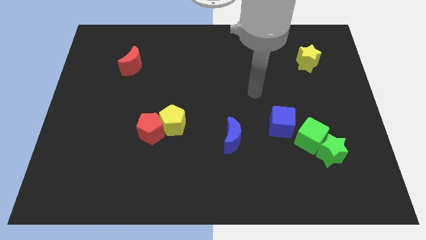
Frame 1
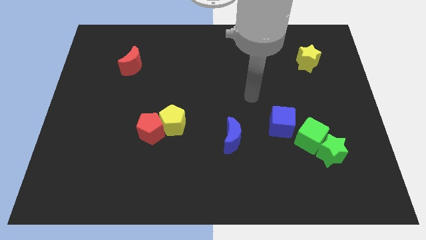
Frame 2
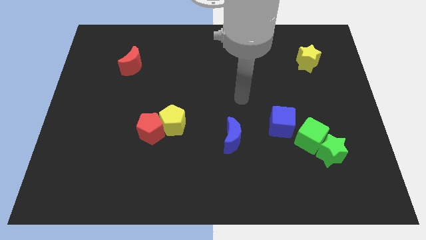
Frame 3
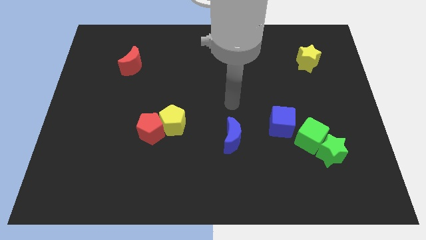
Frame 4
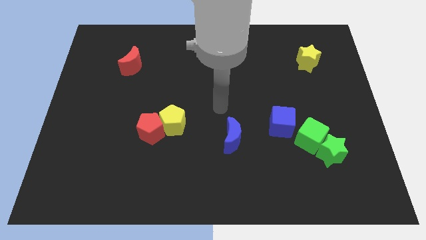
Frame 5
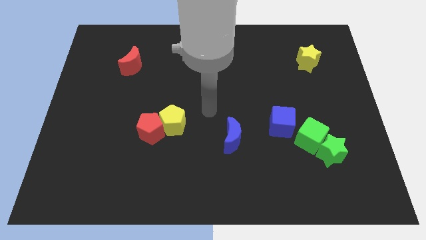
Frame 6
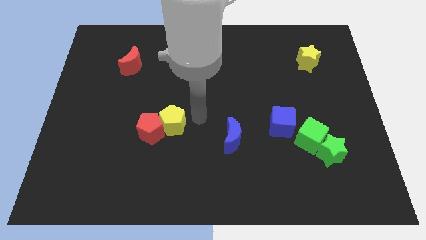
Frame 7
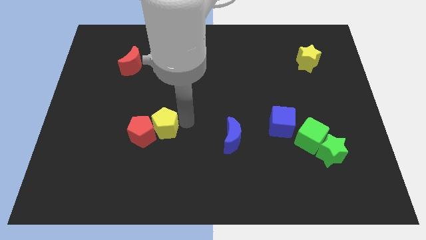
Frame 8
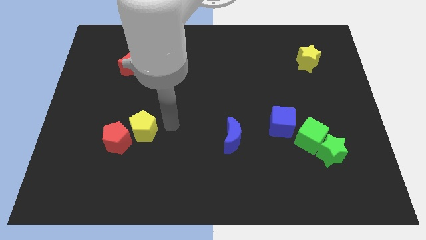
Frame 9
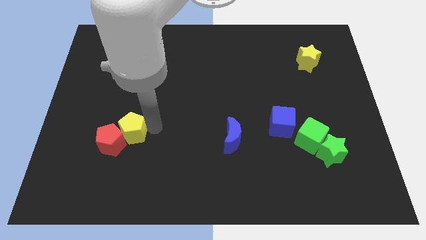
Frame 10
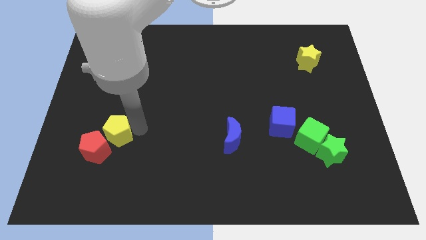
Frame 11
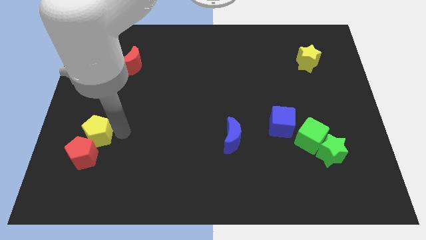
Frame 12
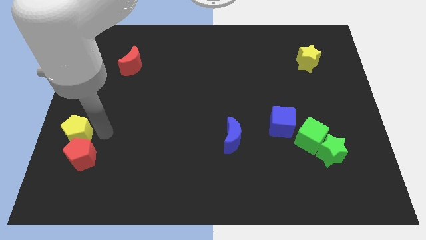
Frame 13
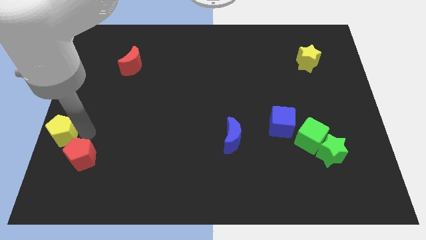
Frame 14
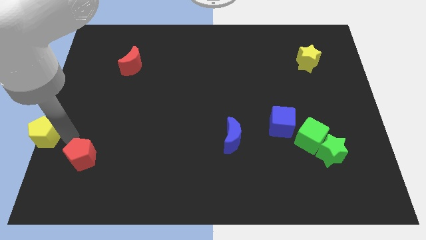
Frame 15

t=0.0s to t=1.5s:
separate the red pentagon from the yellow pentagon

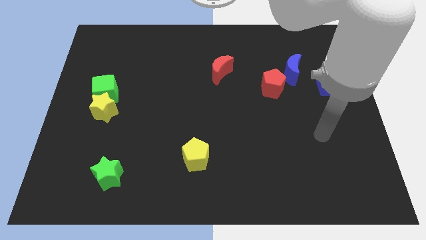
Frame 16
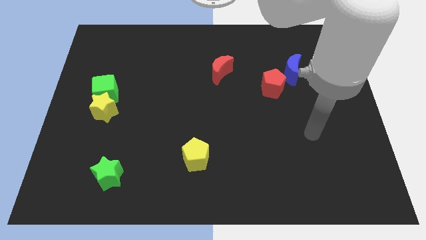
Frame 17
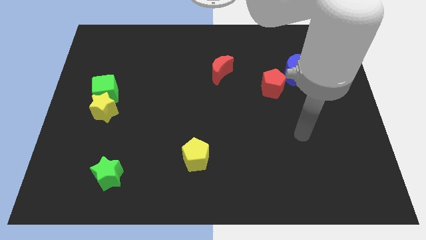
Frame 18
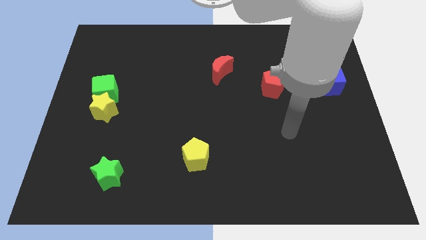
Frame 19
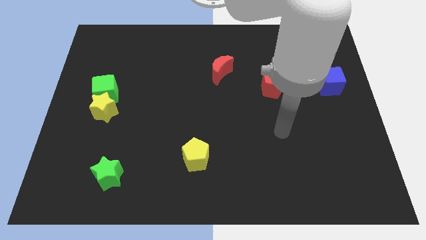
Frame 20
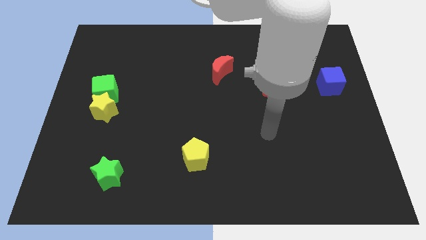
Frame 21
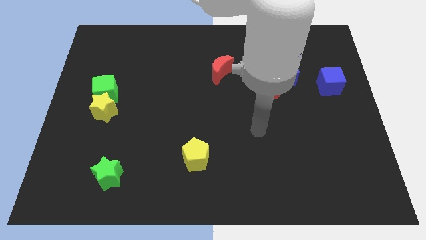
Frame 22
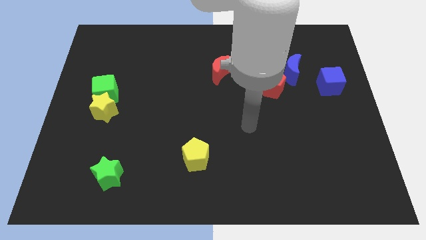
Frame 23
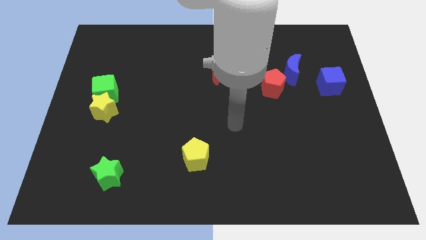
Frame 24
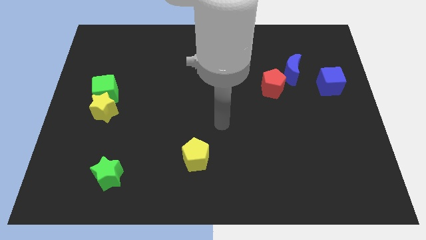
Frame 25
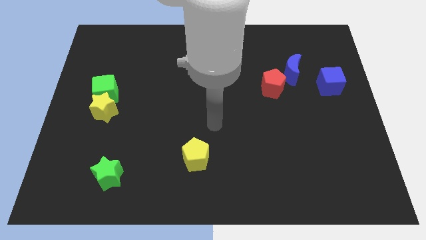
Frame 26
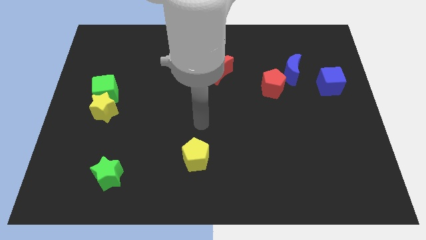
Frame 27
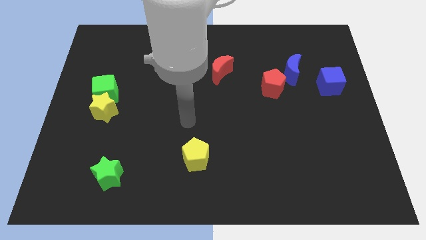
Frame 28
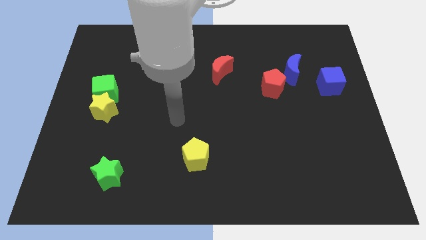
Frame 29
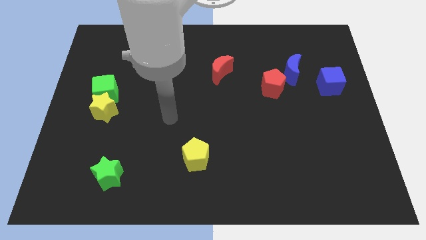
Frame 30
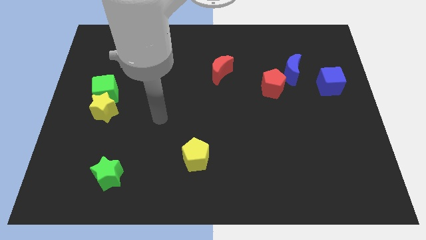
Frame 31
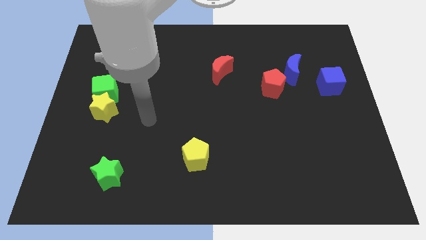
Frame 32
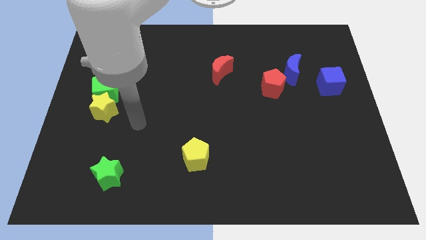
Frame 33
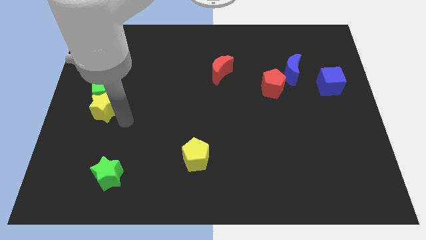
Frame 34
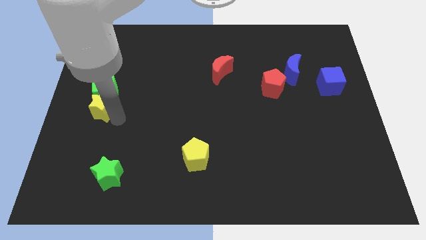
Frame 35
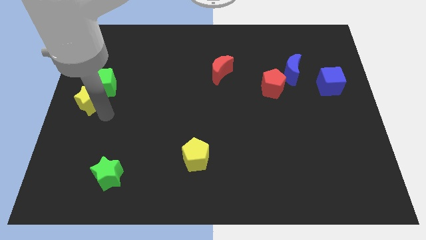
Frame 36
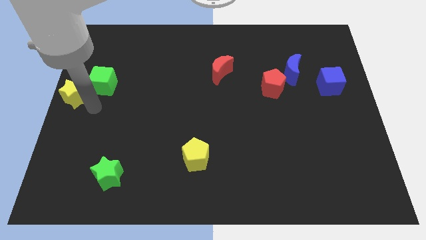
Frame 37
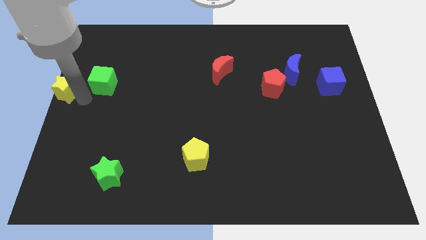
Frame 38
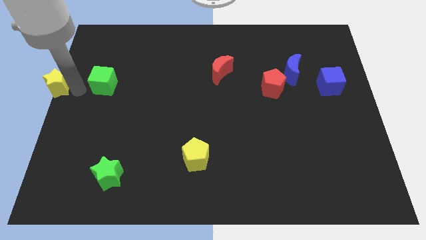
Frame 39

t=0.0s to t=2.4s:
move the green cube away from the yellow star

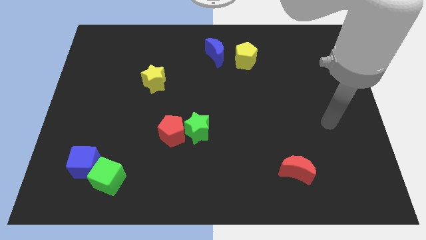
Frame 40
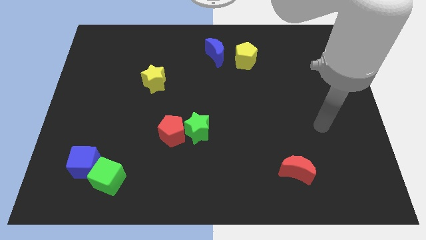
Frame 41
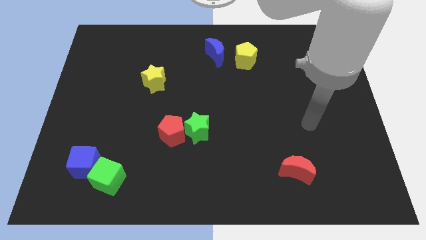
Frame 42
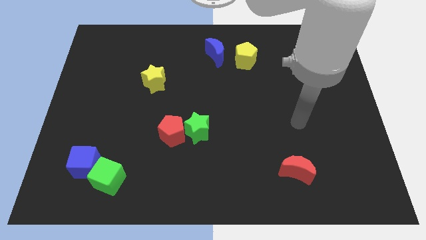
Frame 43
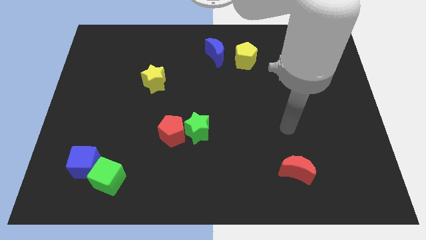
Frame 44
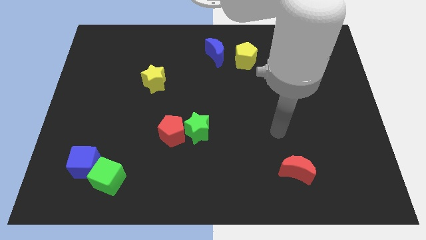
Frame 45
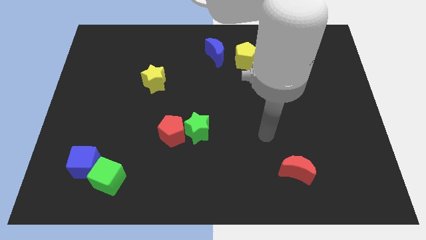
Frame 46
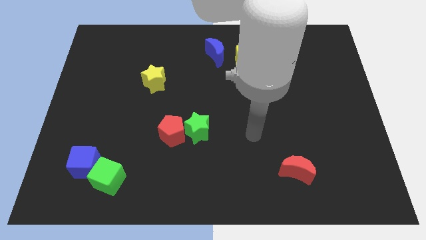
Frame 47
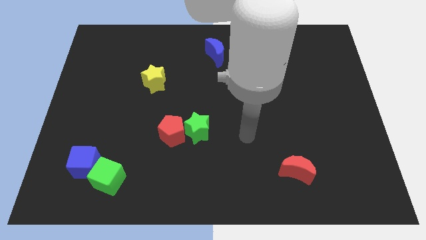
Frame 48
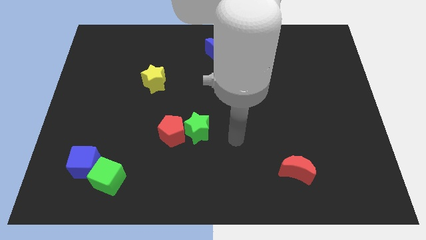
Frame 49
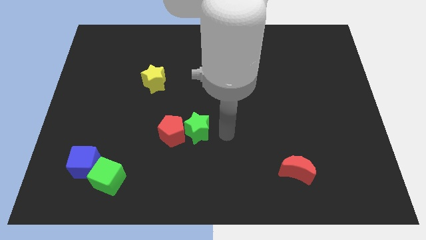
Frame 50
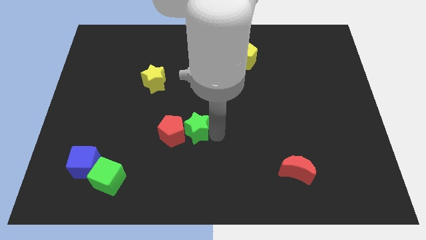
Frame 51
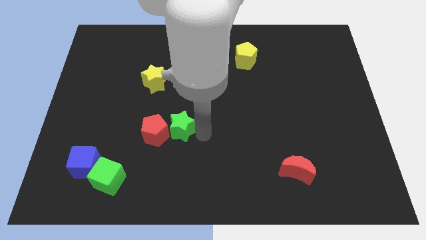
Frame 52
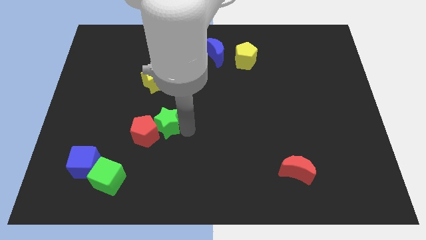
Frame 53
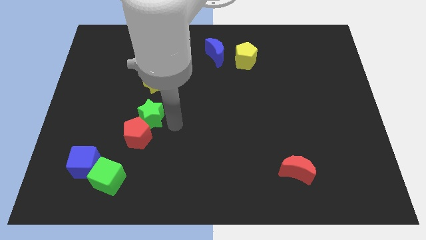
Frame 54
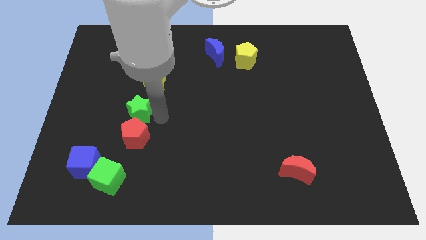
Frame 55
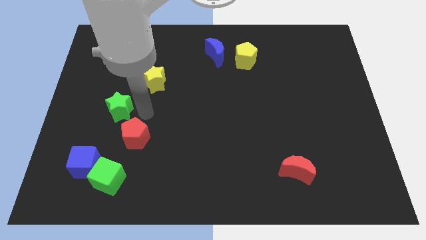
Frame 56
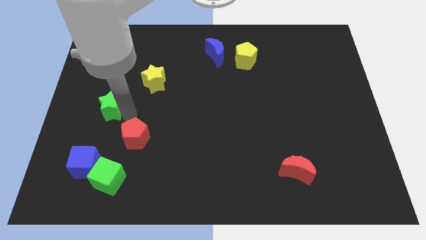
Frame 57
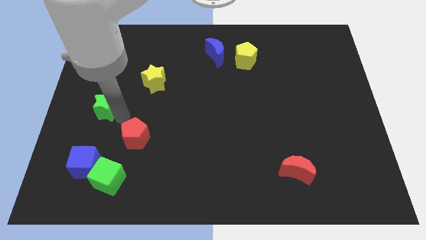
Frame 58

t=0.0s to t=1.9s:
move the red pentagon away from the green star

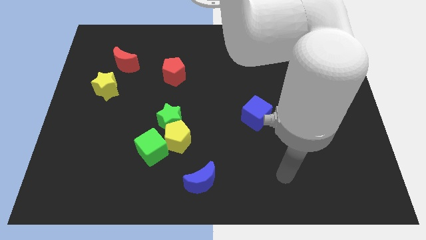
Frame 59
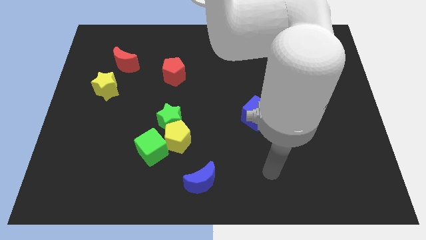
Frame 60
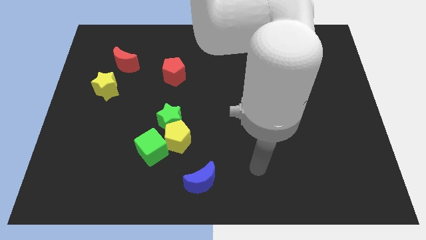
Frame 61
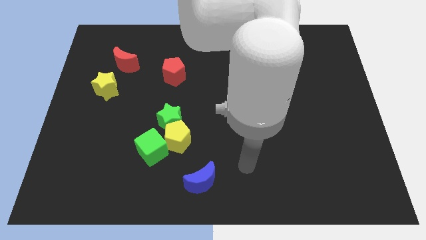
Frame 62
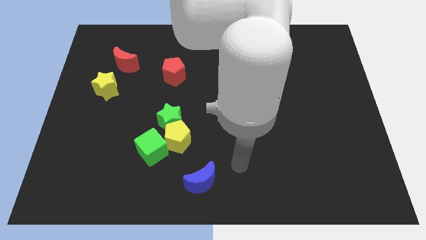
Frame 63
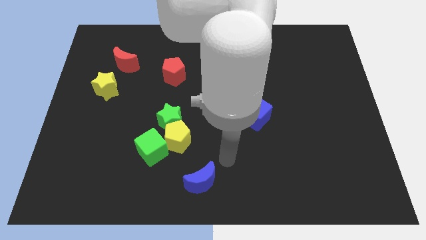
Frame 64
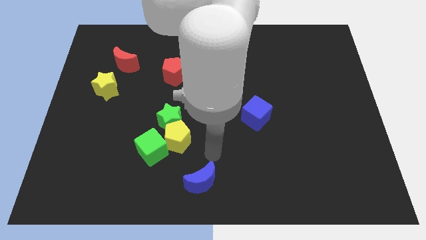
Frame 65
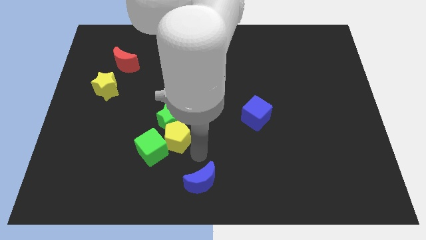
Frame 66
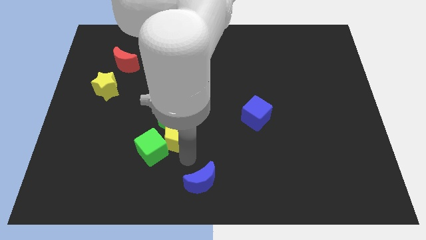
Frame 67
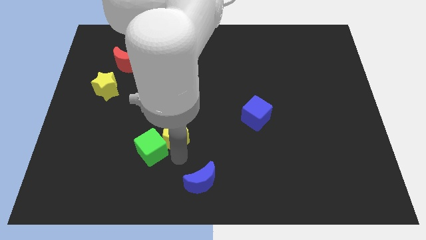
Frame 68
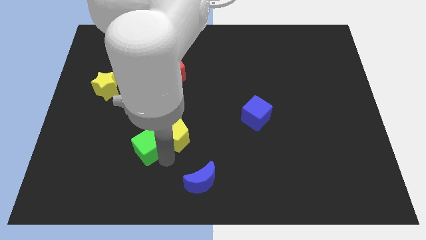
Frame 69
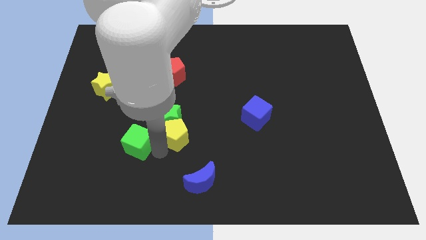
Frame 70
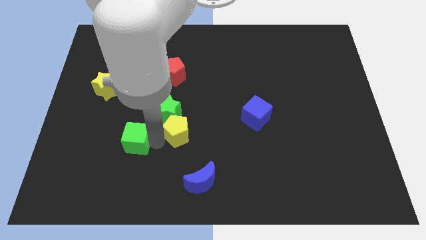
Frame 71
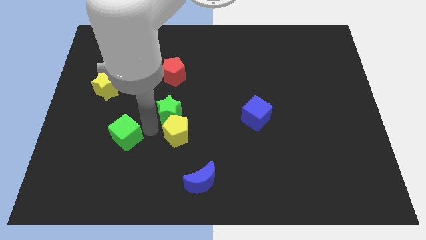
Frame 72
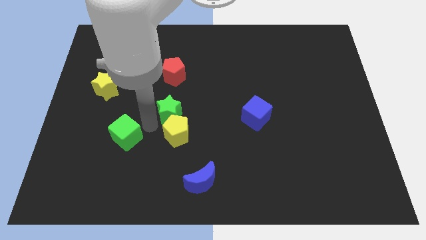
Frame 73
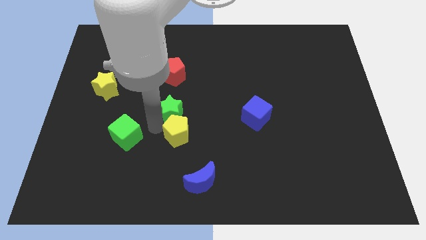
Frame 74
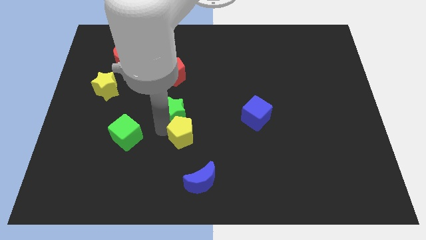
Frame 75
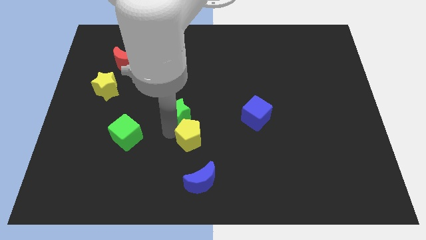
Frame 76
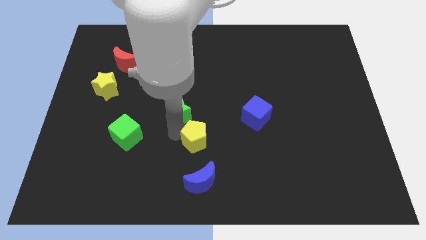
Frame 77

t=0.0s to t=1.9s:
pull the yellow pentagon apart from the green star and green cube

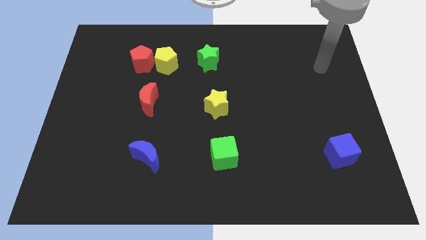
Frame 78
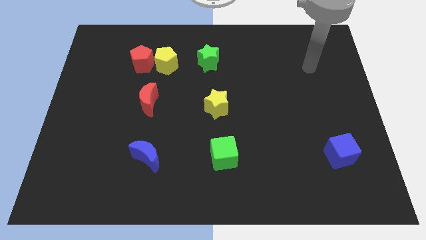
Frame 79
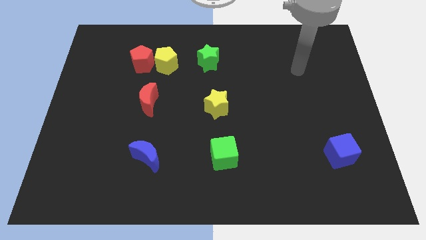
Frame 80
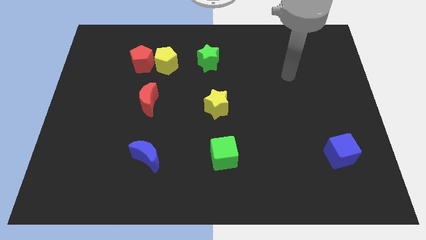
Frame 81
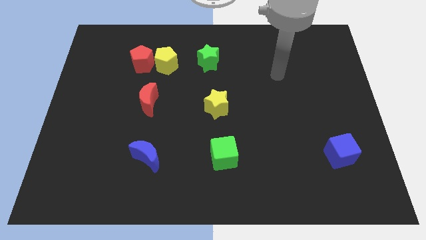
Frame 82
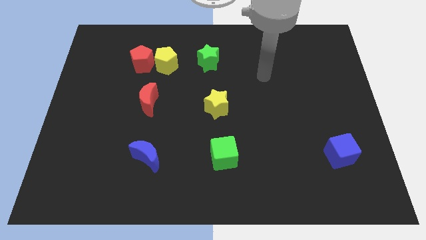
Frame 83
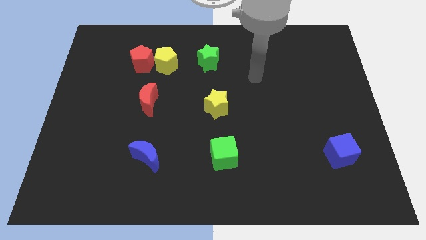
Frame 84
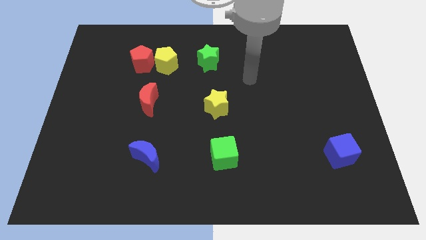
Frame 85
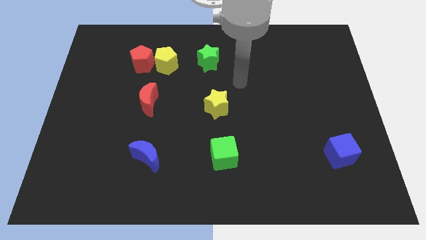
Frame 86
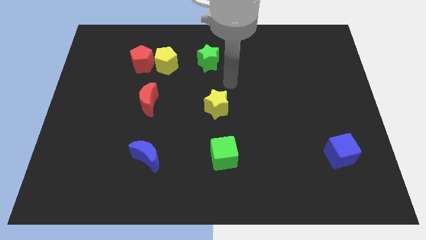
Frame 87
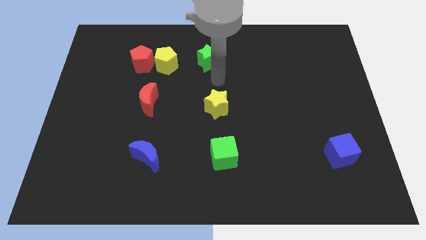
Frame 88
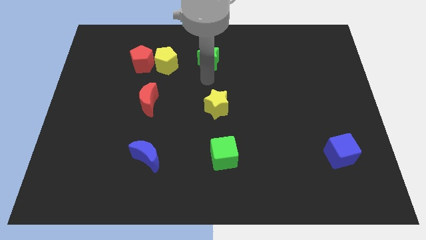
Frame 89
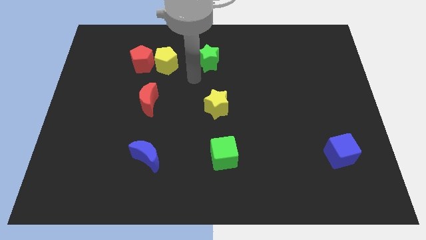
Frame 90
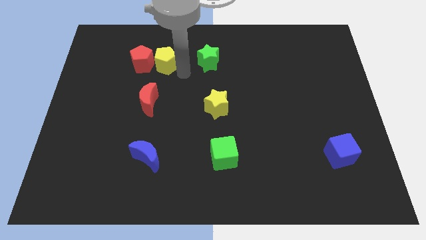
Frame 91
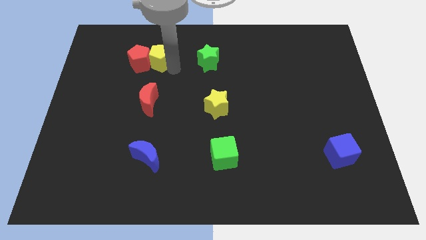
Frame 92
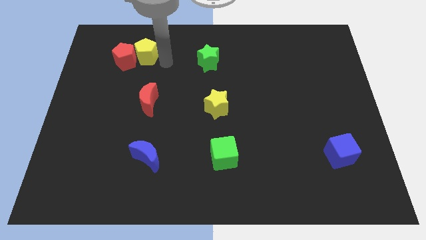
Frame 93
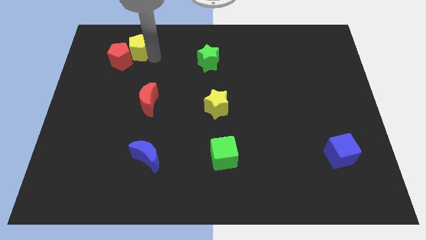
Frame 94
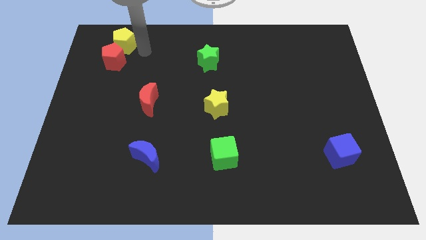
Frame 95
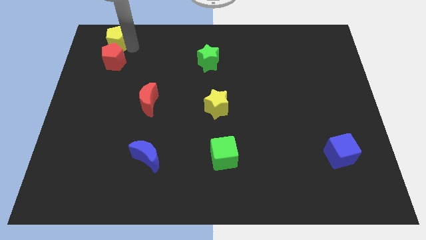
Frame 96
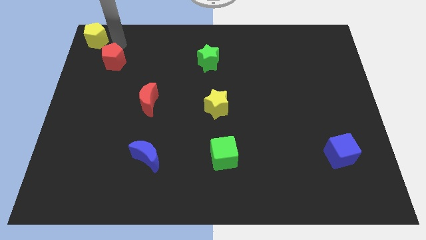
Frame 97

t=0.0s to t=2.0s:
pull the red pentagon apart from the yellow pentagon
